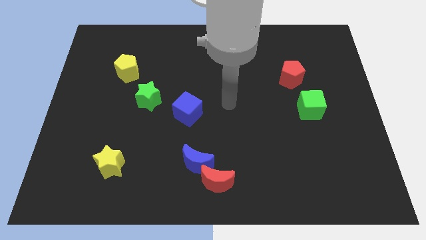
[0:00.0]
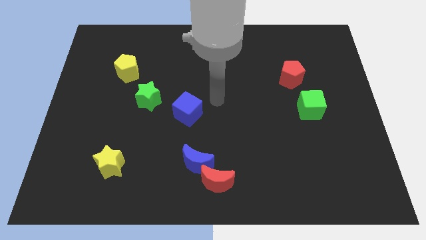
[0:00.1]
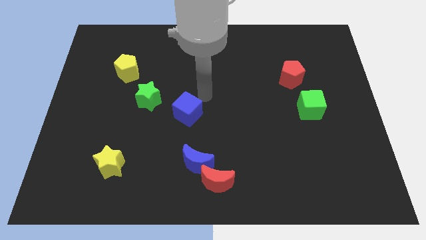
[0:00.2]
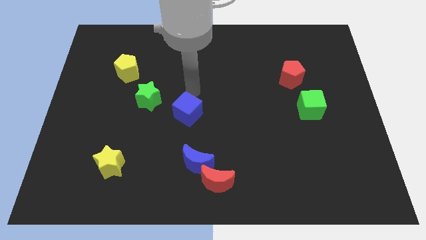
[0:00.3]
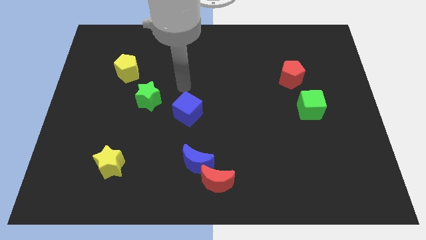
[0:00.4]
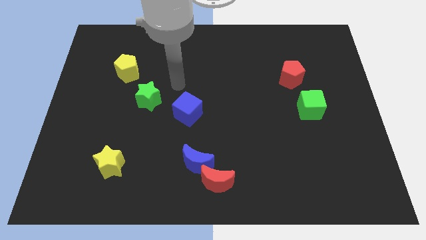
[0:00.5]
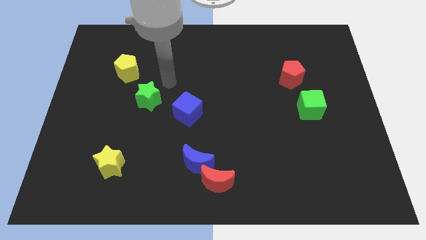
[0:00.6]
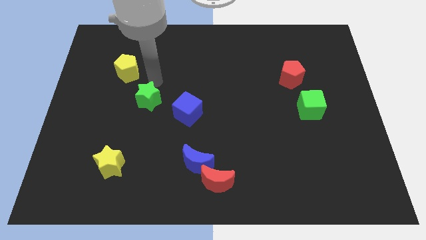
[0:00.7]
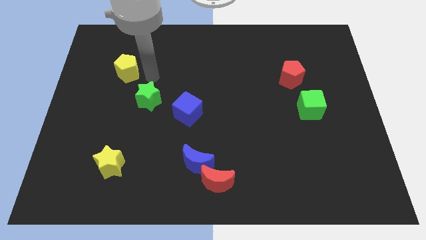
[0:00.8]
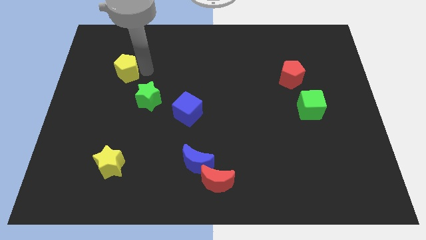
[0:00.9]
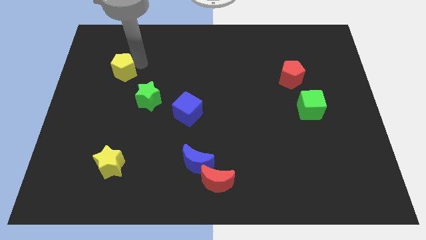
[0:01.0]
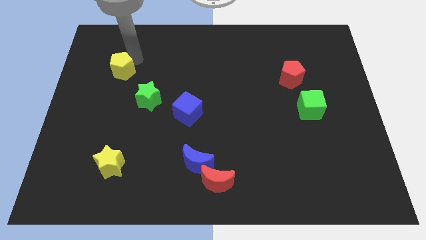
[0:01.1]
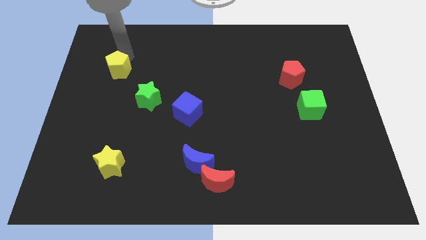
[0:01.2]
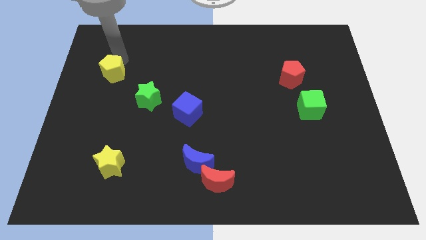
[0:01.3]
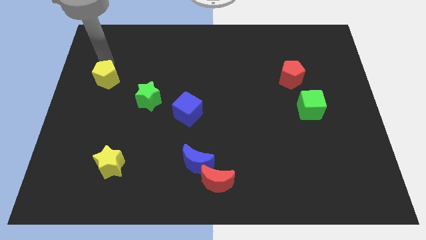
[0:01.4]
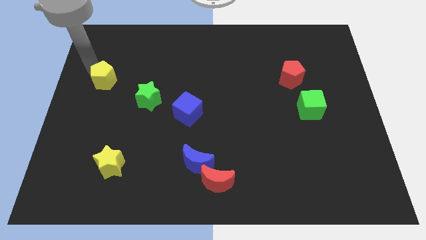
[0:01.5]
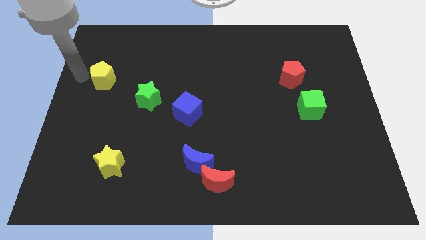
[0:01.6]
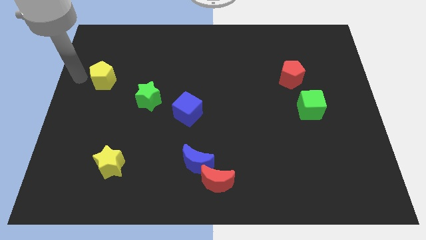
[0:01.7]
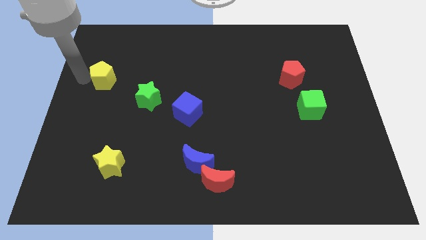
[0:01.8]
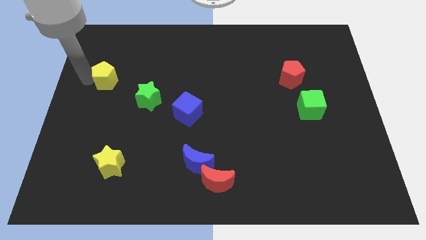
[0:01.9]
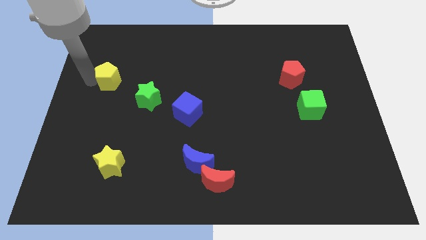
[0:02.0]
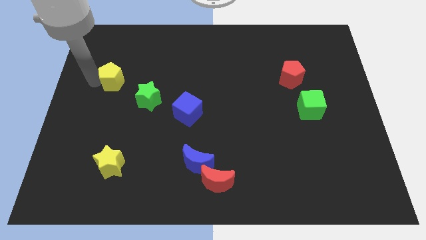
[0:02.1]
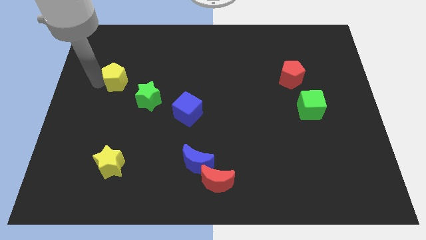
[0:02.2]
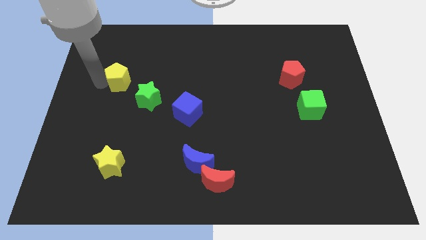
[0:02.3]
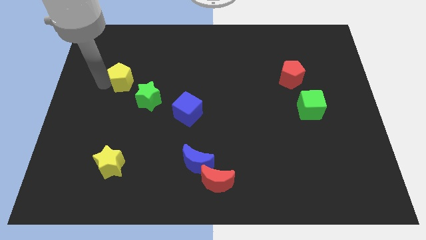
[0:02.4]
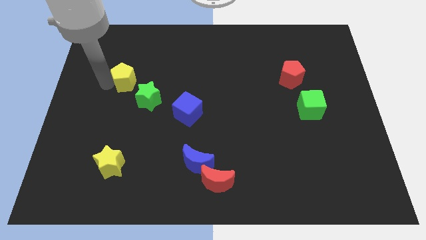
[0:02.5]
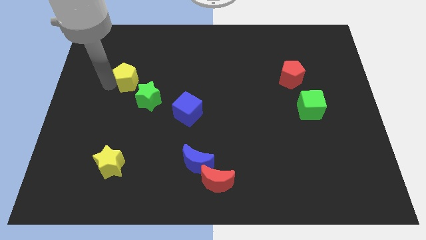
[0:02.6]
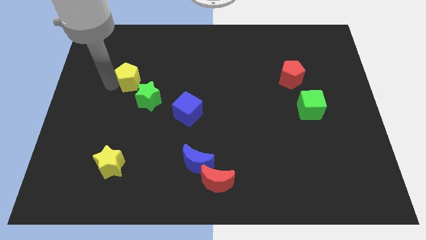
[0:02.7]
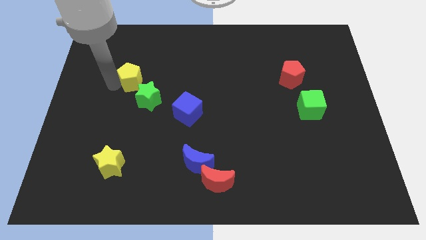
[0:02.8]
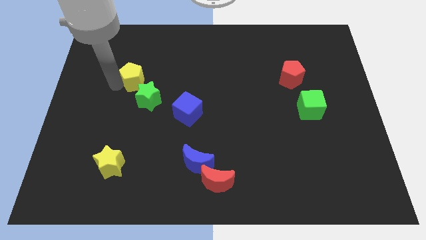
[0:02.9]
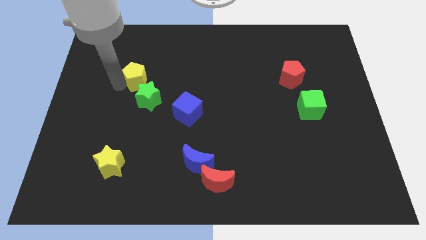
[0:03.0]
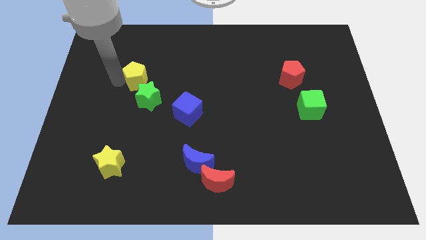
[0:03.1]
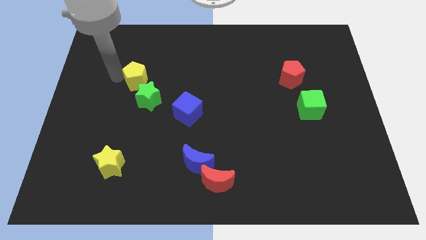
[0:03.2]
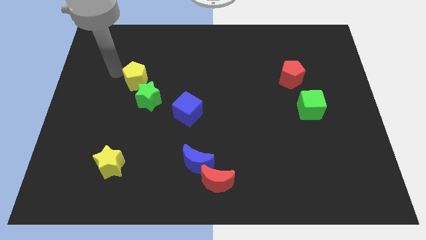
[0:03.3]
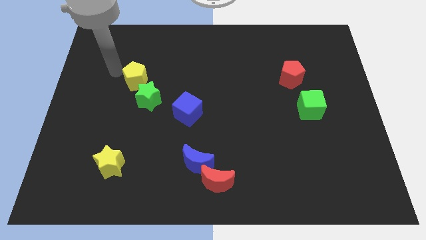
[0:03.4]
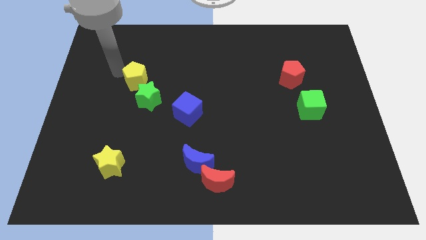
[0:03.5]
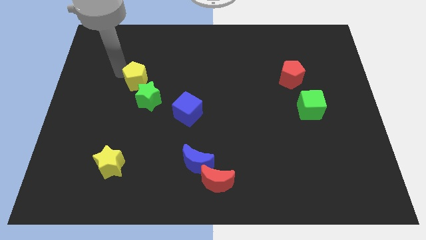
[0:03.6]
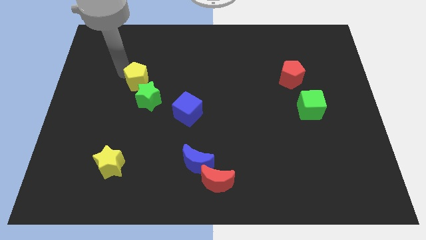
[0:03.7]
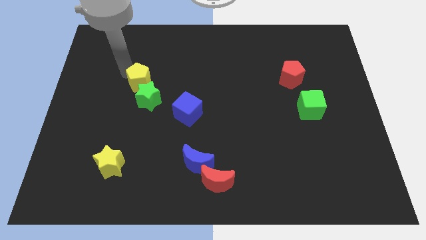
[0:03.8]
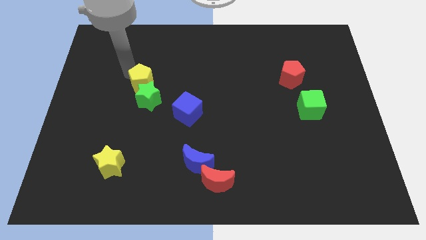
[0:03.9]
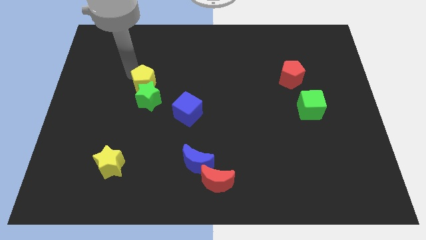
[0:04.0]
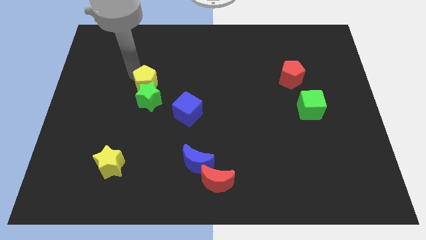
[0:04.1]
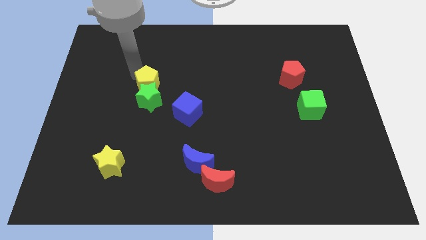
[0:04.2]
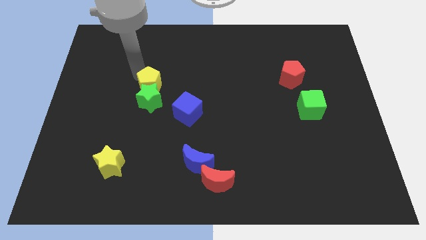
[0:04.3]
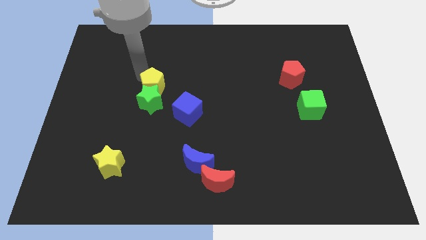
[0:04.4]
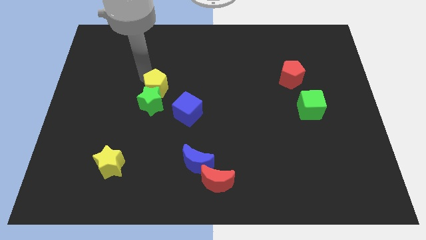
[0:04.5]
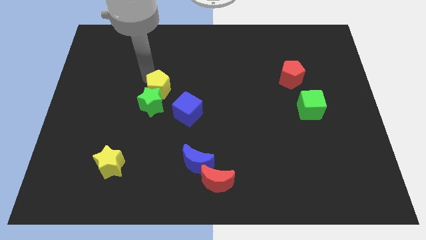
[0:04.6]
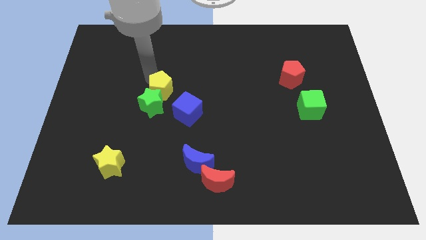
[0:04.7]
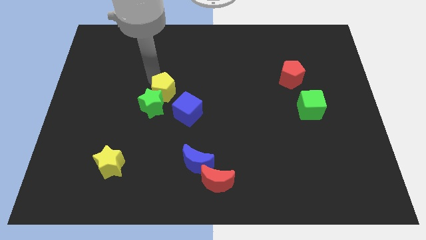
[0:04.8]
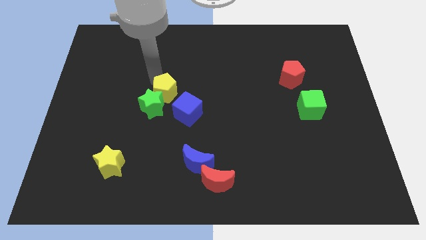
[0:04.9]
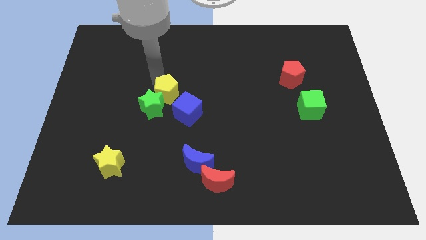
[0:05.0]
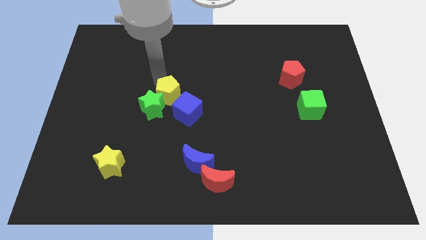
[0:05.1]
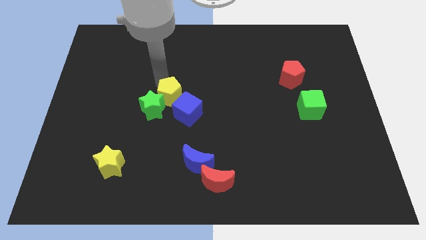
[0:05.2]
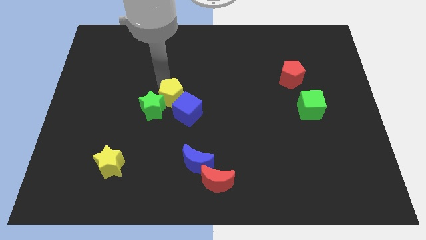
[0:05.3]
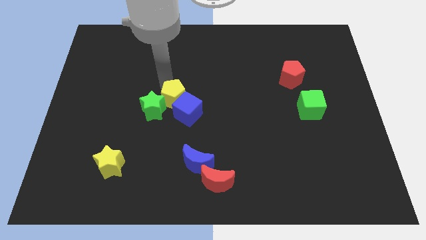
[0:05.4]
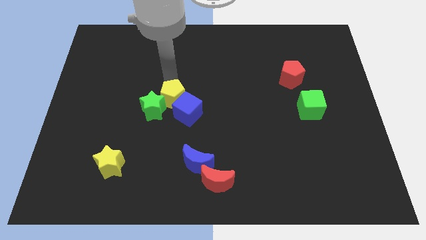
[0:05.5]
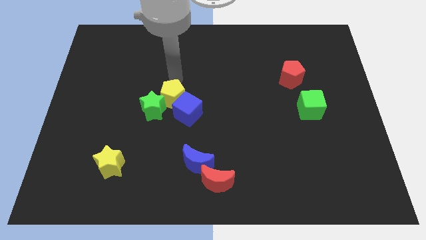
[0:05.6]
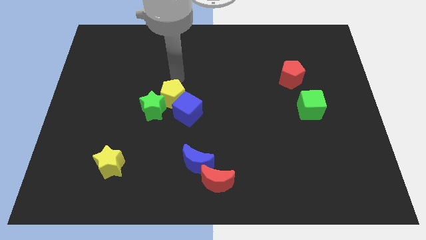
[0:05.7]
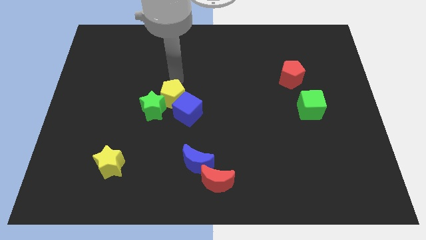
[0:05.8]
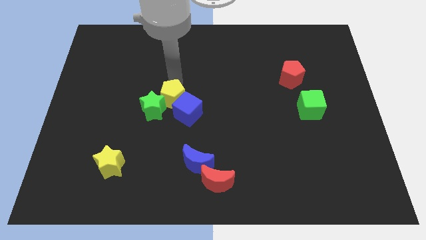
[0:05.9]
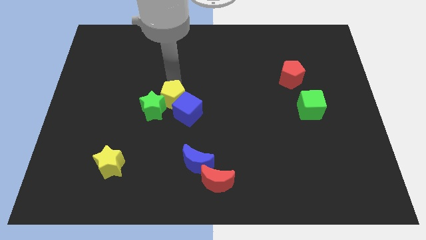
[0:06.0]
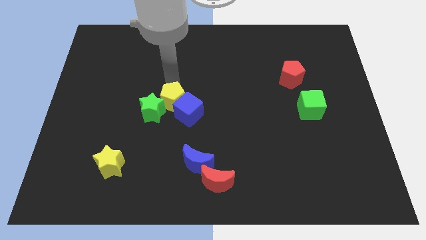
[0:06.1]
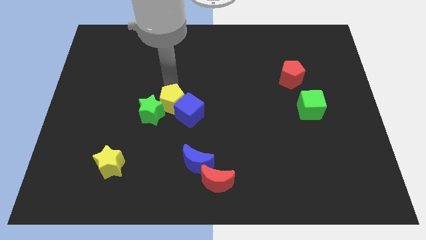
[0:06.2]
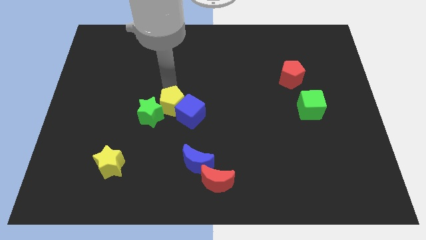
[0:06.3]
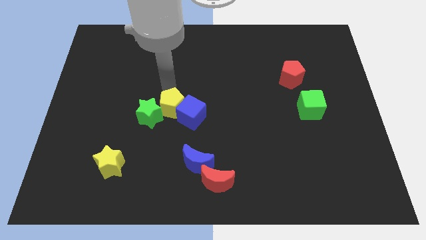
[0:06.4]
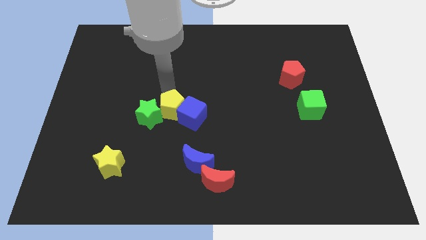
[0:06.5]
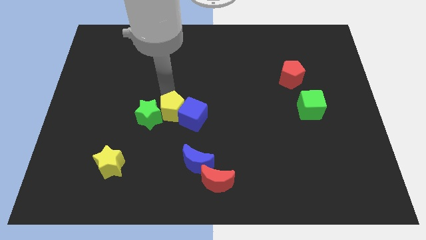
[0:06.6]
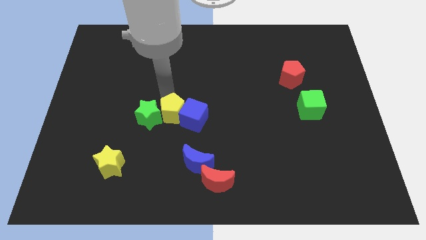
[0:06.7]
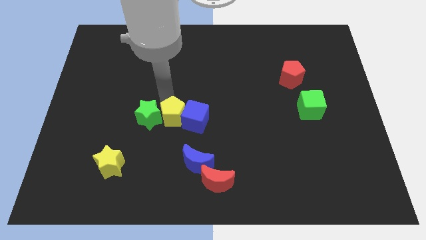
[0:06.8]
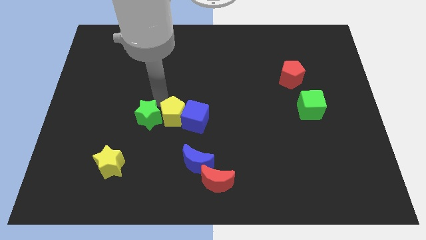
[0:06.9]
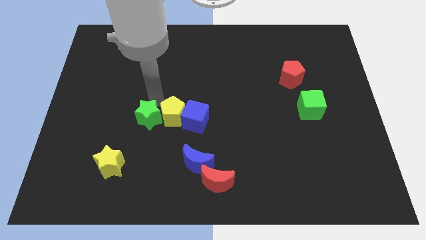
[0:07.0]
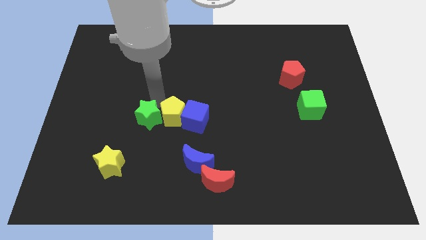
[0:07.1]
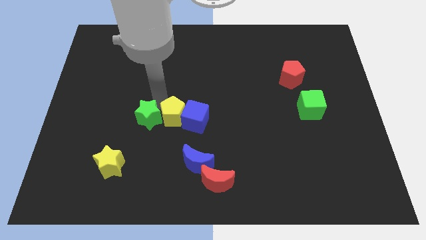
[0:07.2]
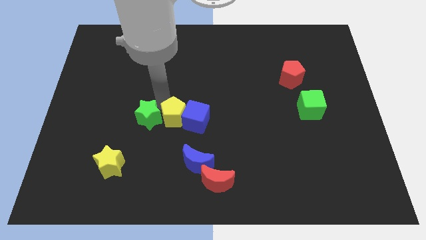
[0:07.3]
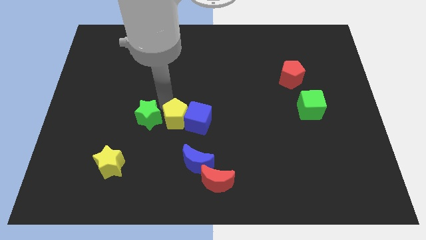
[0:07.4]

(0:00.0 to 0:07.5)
slide the yellow pentagon down and right diagonally

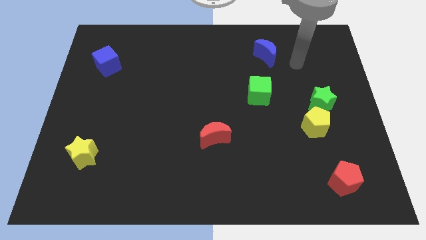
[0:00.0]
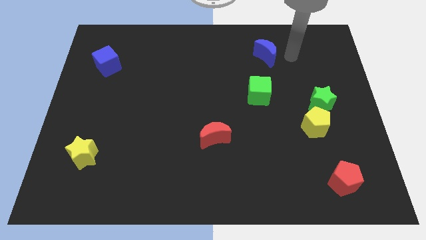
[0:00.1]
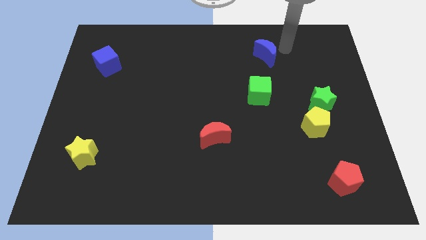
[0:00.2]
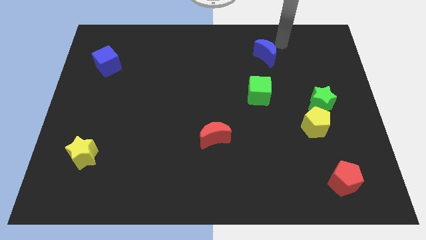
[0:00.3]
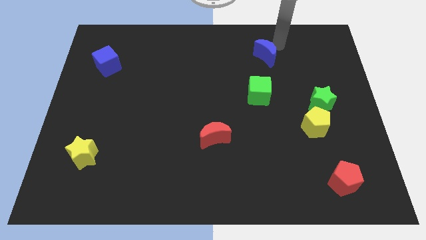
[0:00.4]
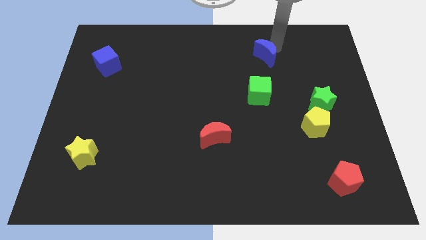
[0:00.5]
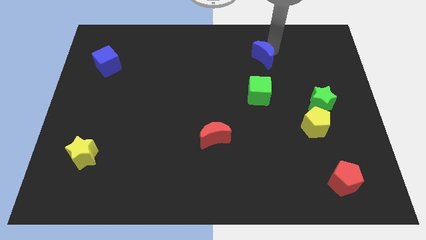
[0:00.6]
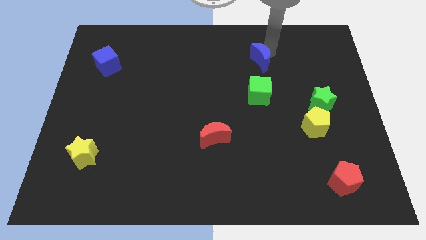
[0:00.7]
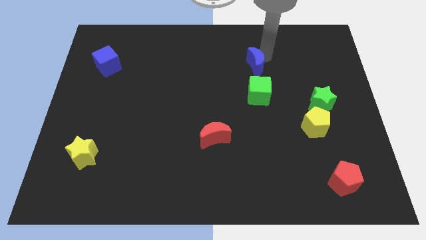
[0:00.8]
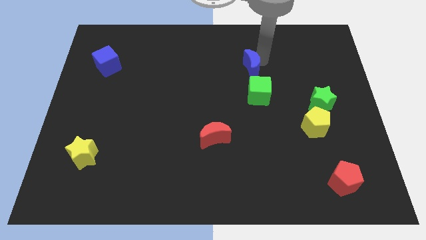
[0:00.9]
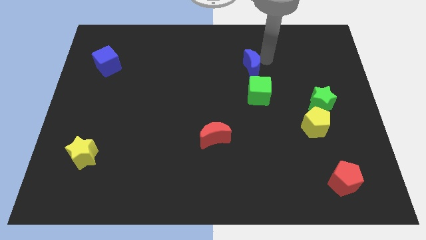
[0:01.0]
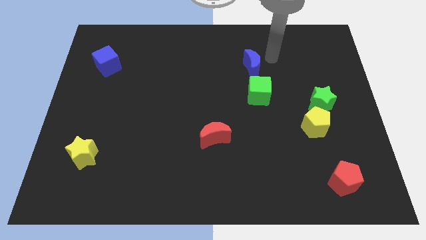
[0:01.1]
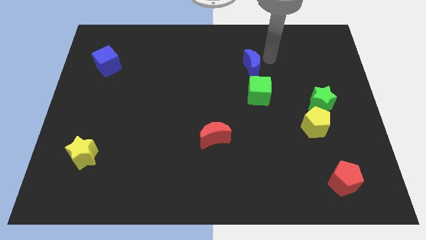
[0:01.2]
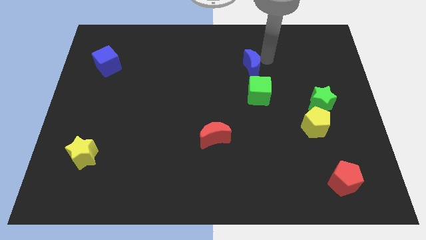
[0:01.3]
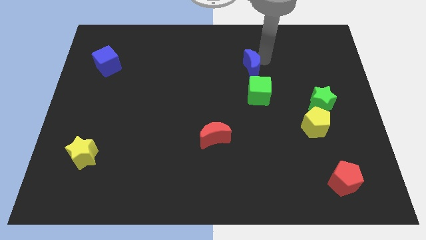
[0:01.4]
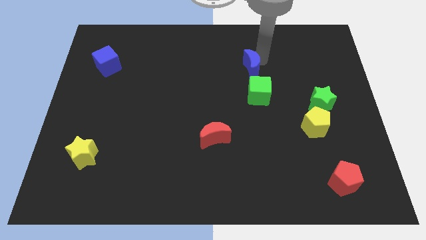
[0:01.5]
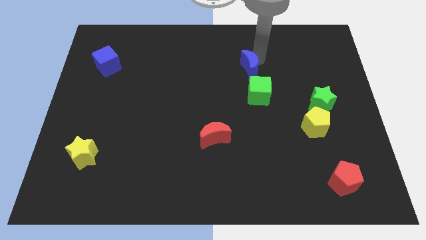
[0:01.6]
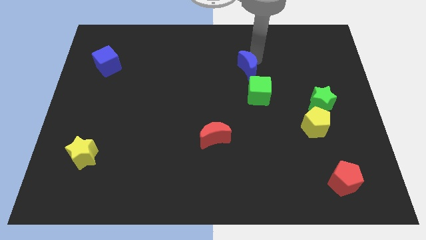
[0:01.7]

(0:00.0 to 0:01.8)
slightly move the blue moon down and left
